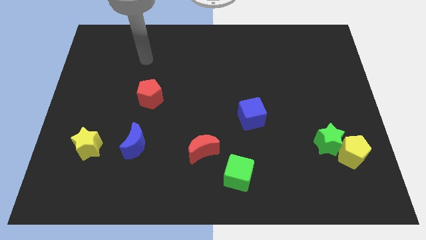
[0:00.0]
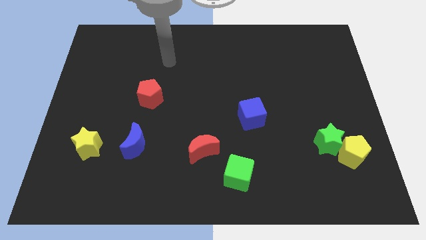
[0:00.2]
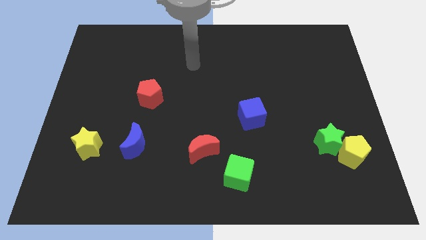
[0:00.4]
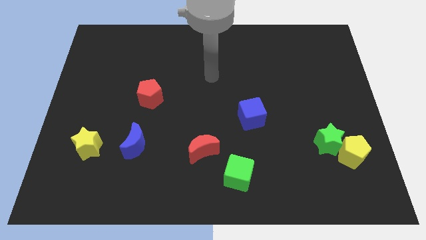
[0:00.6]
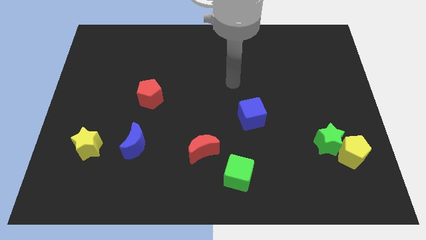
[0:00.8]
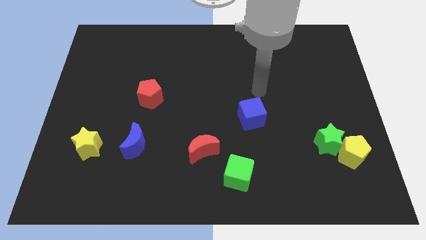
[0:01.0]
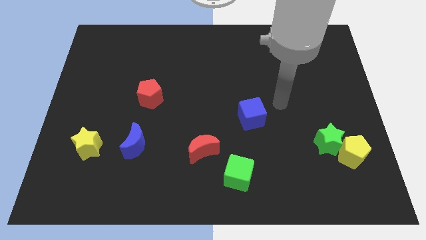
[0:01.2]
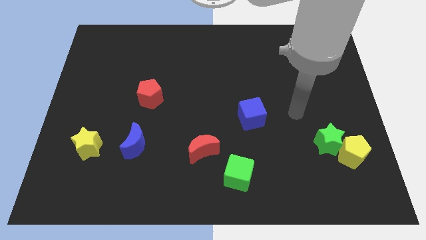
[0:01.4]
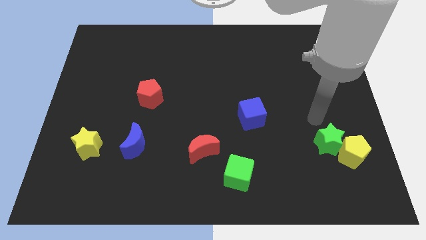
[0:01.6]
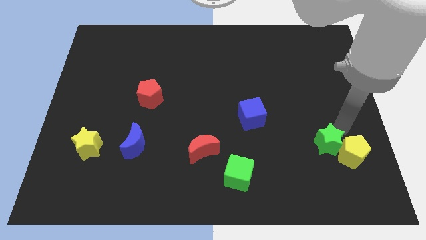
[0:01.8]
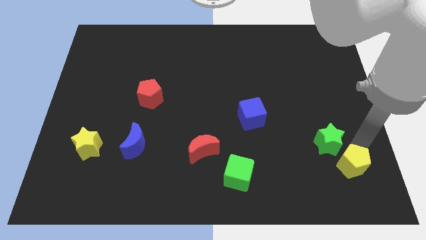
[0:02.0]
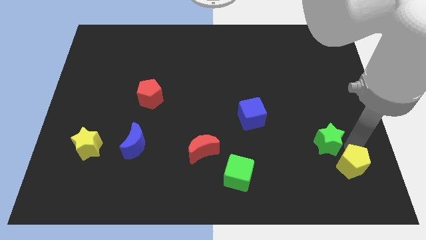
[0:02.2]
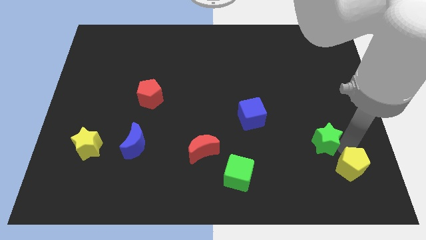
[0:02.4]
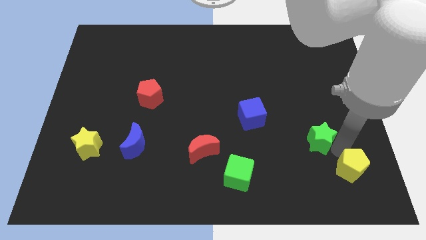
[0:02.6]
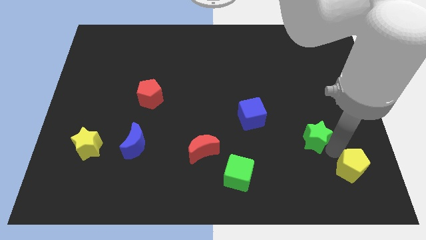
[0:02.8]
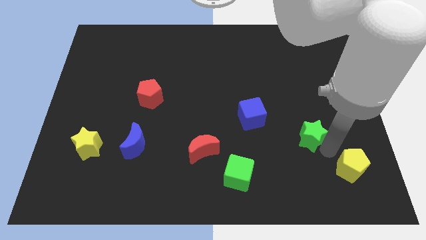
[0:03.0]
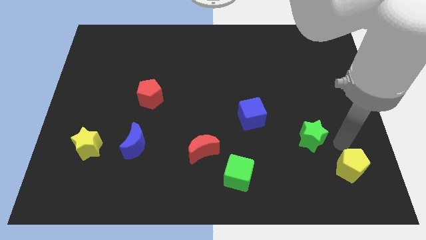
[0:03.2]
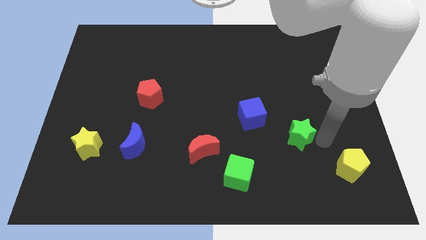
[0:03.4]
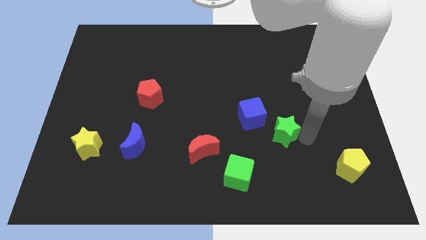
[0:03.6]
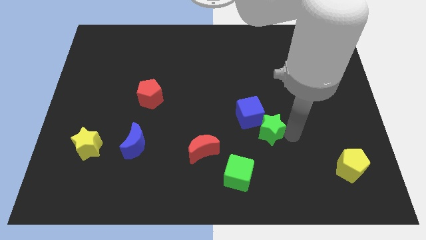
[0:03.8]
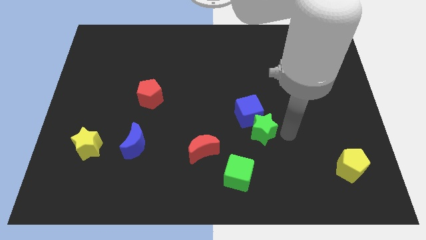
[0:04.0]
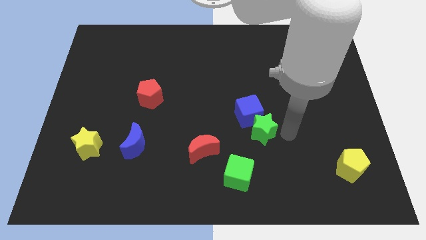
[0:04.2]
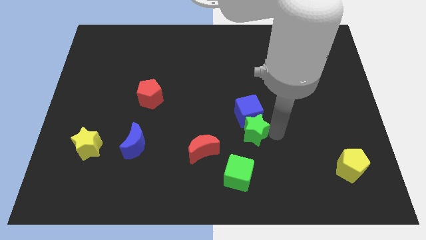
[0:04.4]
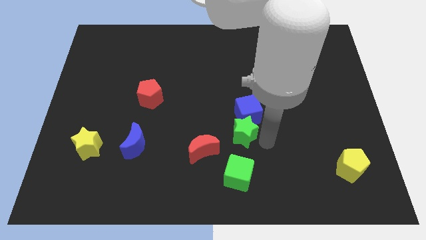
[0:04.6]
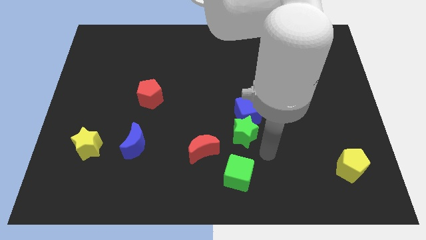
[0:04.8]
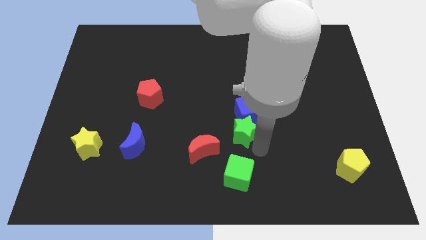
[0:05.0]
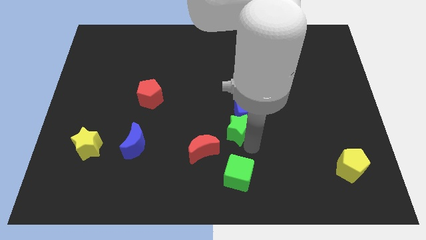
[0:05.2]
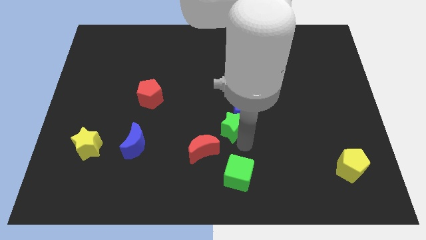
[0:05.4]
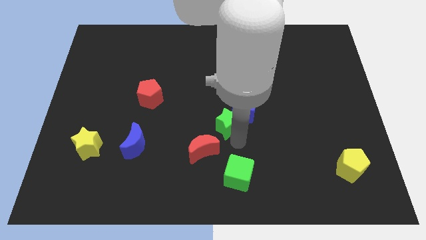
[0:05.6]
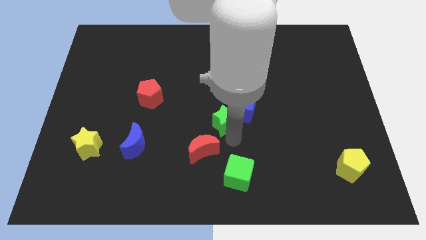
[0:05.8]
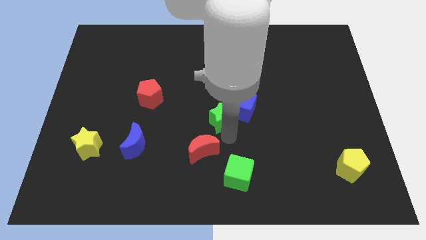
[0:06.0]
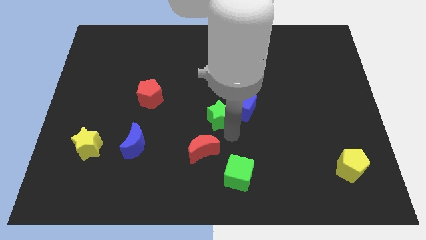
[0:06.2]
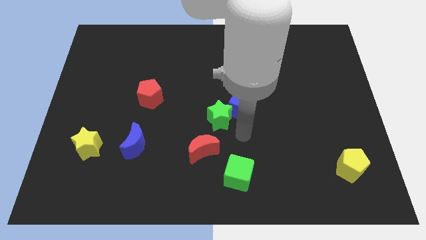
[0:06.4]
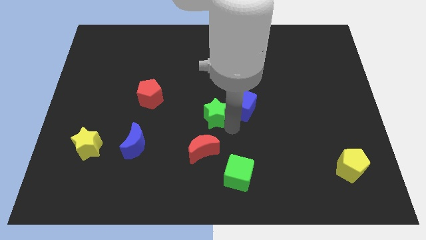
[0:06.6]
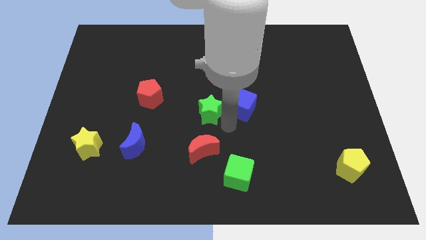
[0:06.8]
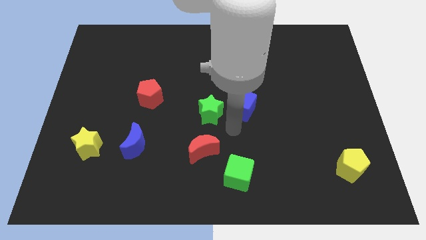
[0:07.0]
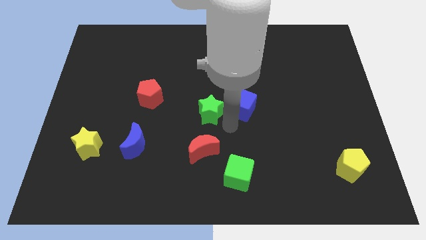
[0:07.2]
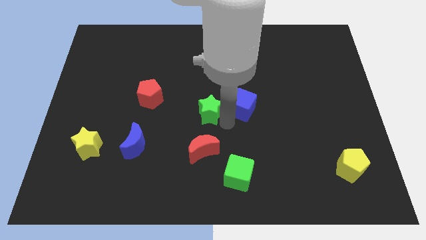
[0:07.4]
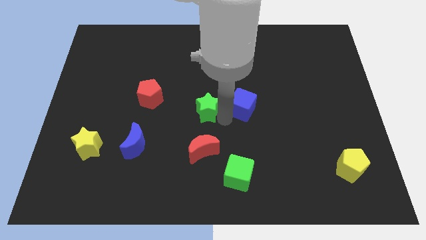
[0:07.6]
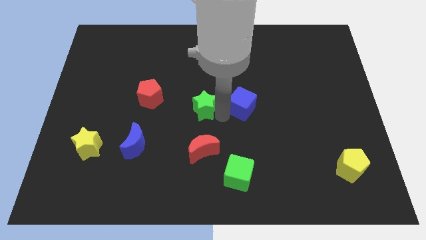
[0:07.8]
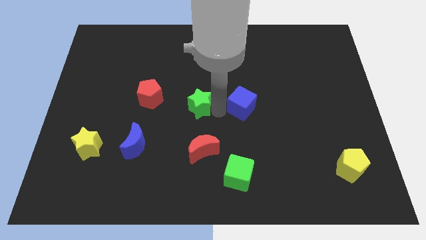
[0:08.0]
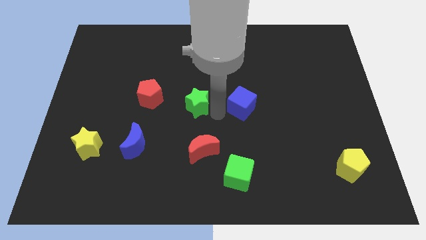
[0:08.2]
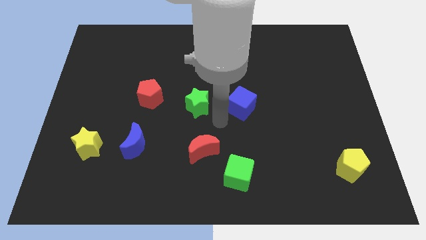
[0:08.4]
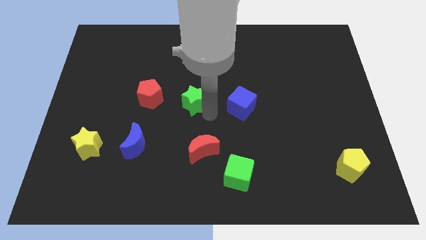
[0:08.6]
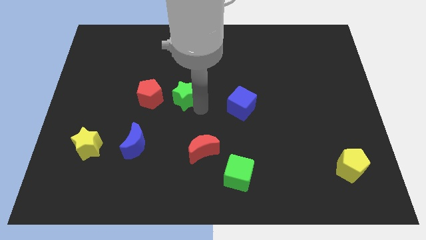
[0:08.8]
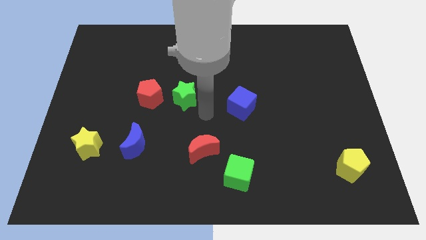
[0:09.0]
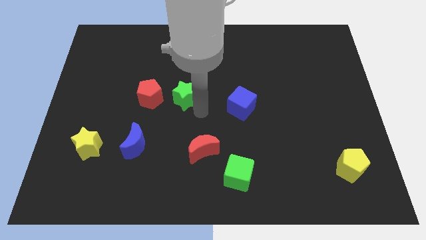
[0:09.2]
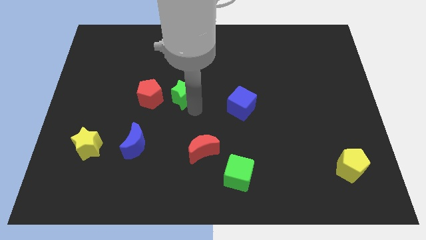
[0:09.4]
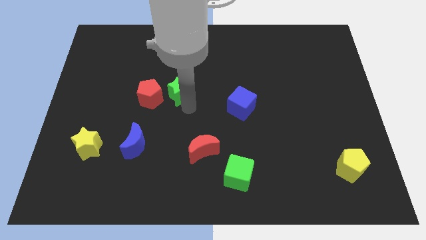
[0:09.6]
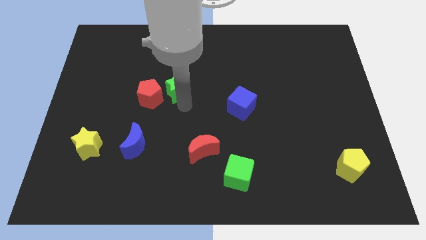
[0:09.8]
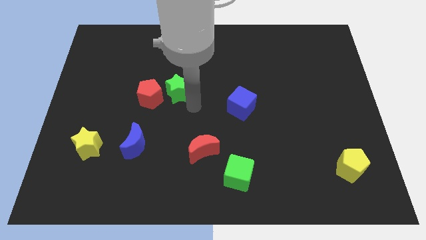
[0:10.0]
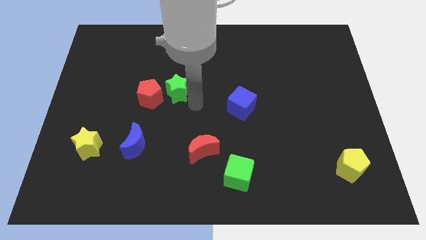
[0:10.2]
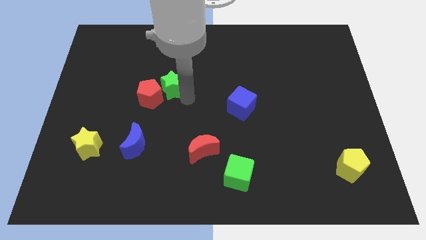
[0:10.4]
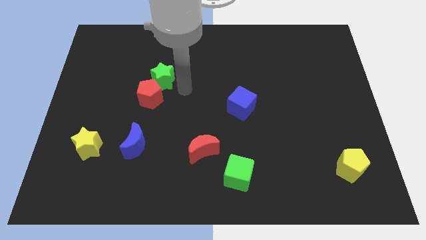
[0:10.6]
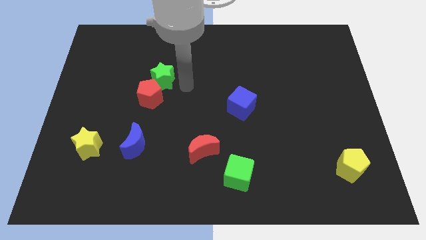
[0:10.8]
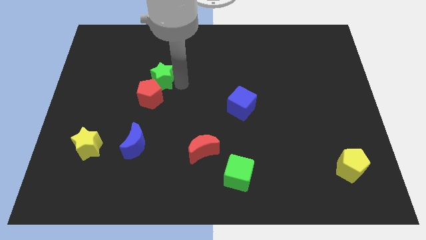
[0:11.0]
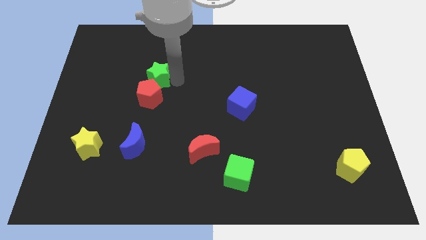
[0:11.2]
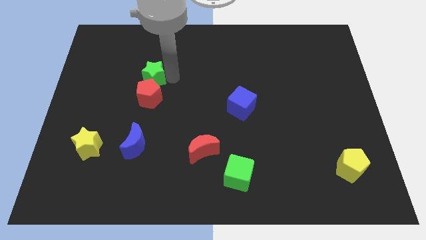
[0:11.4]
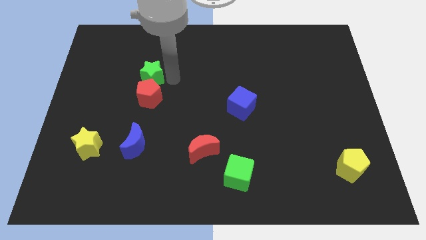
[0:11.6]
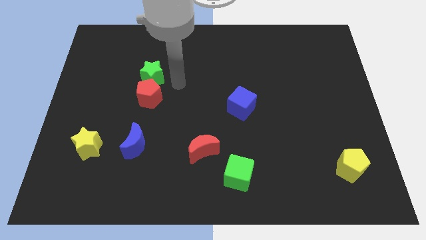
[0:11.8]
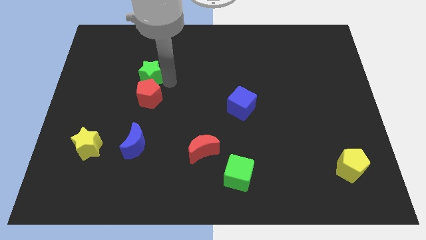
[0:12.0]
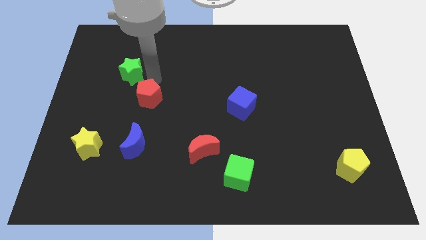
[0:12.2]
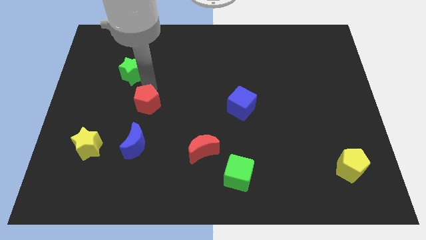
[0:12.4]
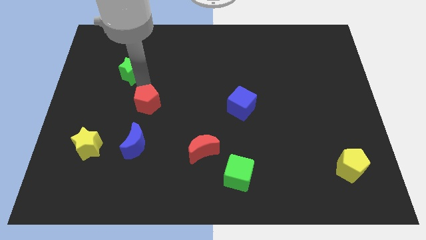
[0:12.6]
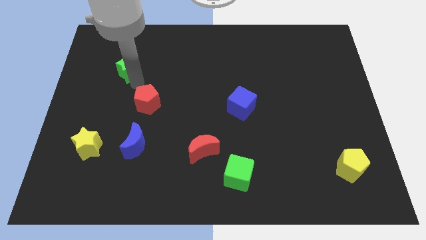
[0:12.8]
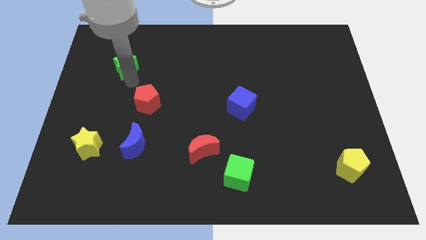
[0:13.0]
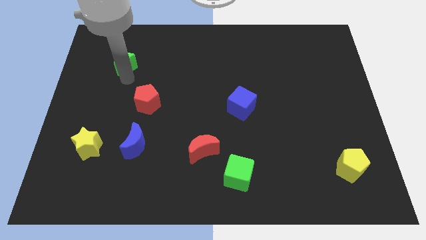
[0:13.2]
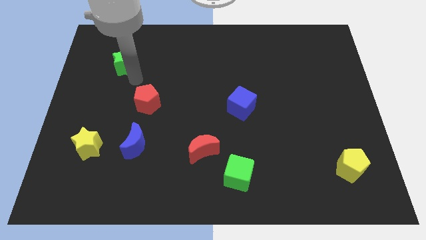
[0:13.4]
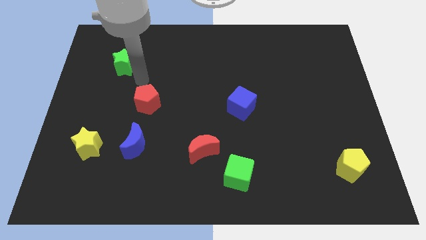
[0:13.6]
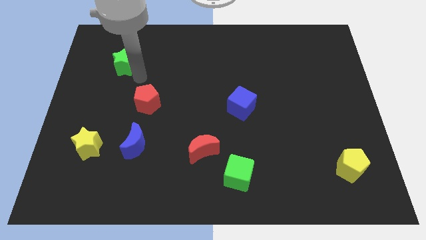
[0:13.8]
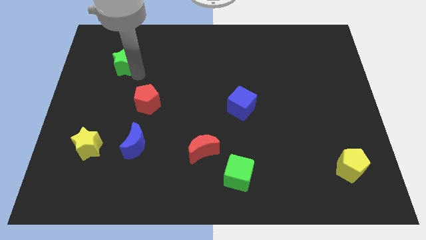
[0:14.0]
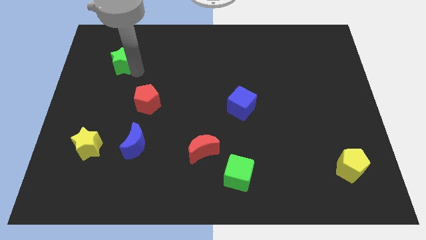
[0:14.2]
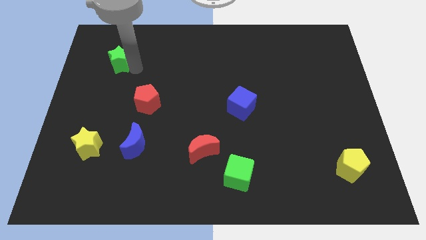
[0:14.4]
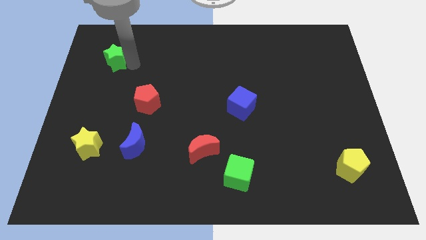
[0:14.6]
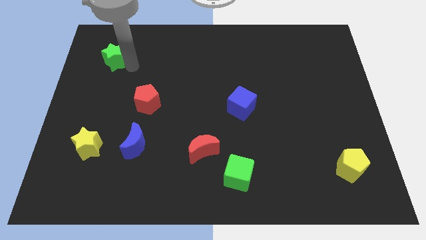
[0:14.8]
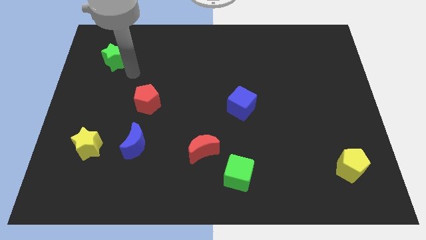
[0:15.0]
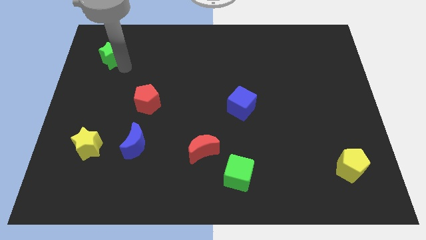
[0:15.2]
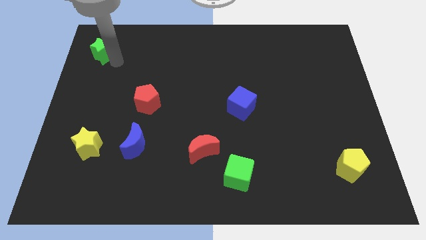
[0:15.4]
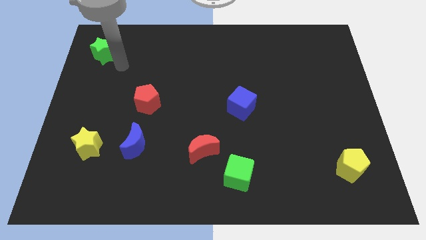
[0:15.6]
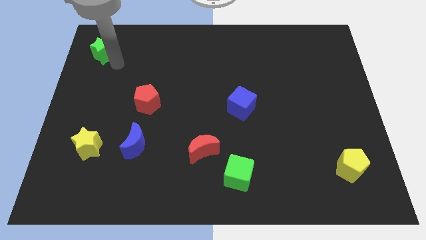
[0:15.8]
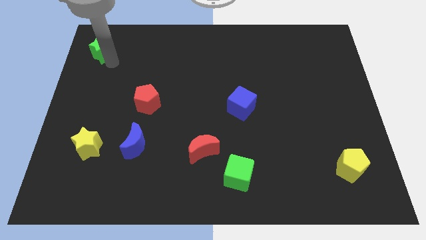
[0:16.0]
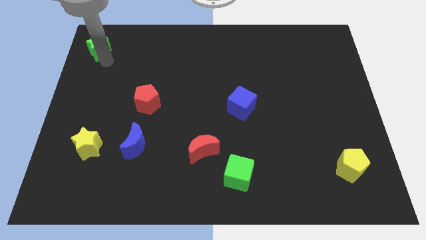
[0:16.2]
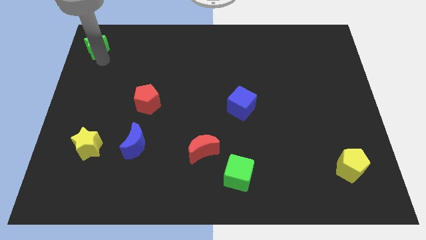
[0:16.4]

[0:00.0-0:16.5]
move the green star to the top left
